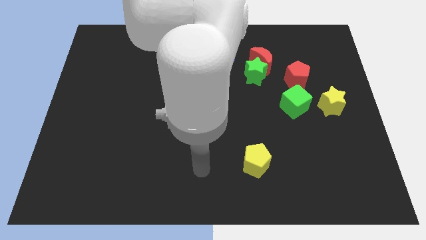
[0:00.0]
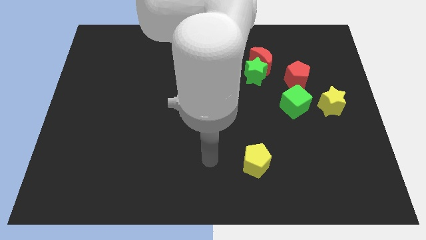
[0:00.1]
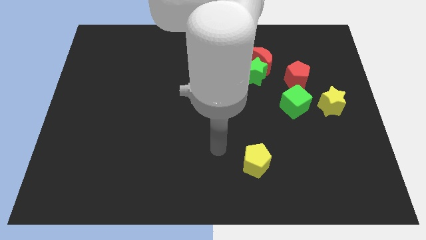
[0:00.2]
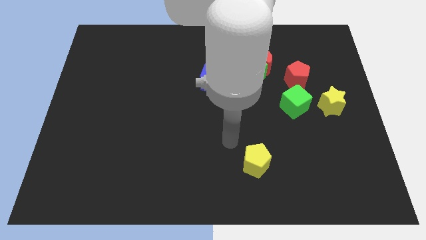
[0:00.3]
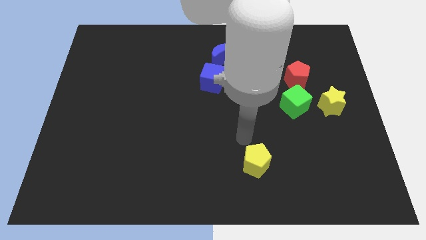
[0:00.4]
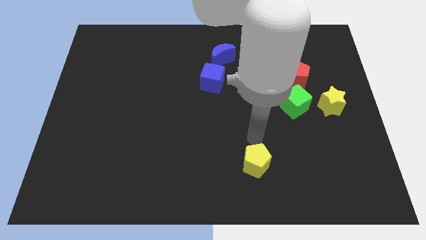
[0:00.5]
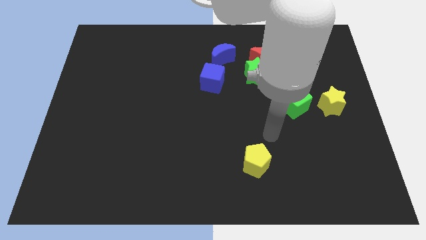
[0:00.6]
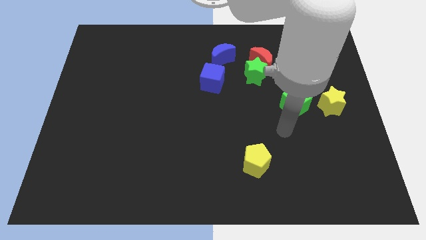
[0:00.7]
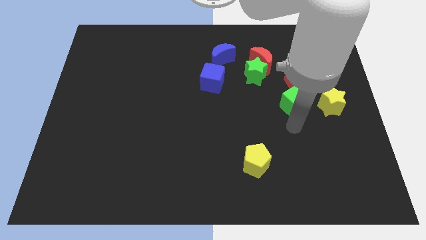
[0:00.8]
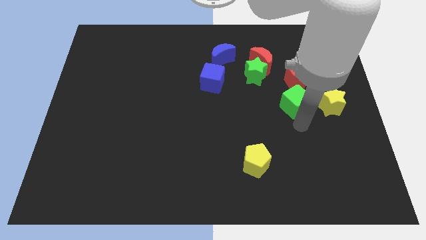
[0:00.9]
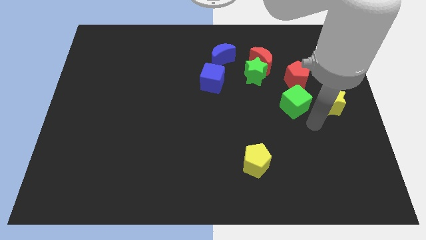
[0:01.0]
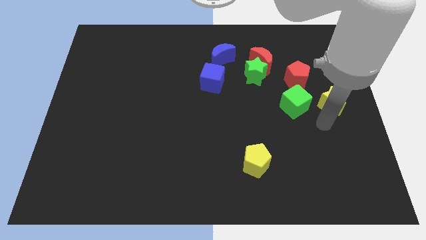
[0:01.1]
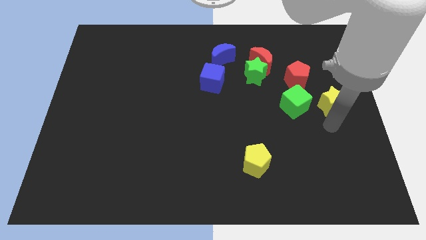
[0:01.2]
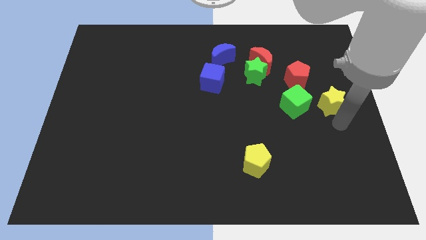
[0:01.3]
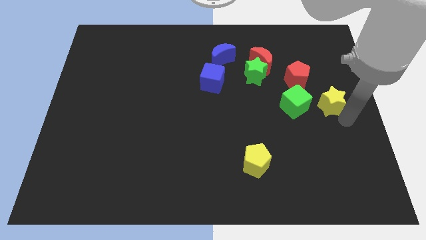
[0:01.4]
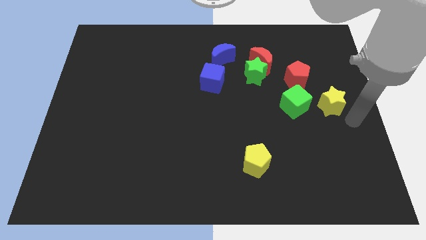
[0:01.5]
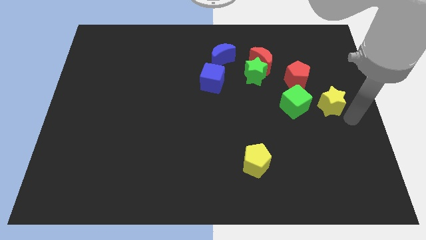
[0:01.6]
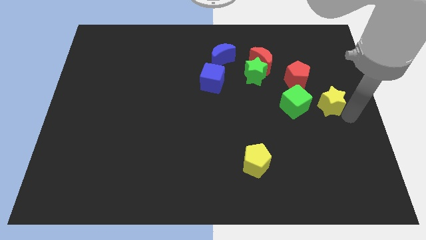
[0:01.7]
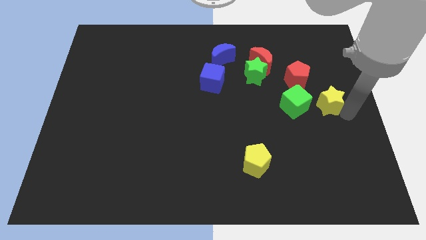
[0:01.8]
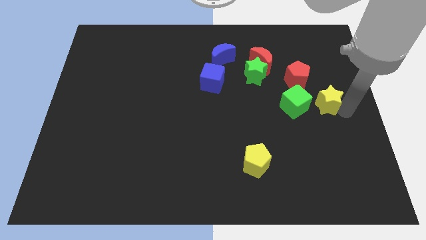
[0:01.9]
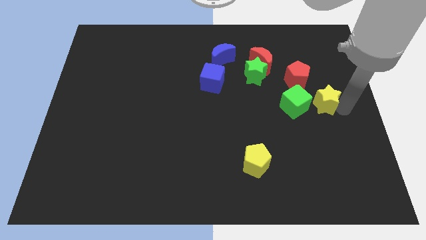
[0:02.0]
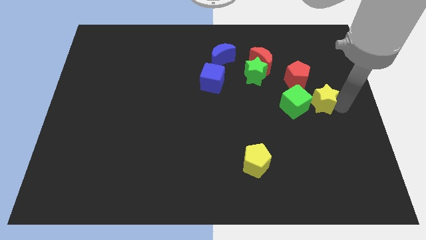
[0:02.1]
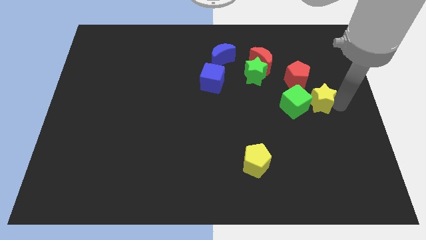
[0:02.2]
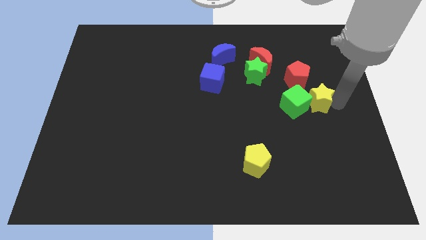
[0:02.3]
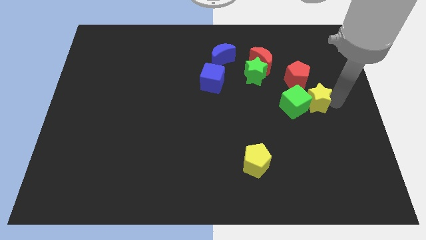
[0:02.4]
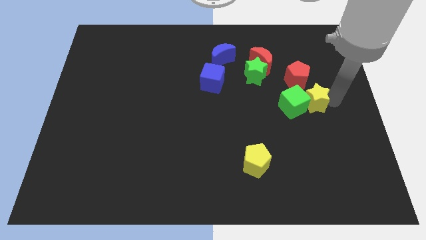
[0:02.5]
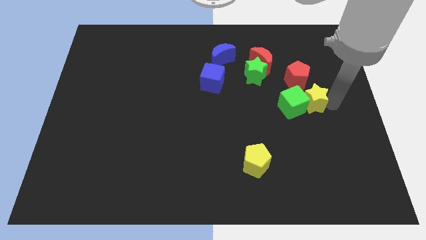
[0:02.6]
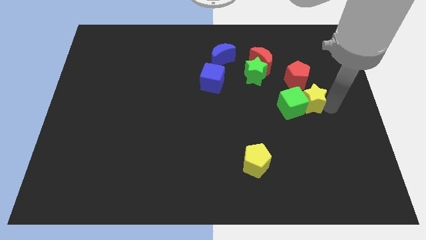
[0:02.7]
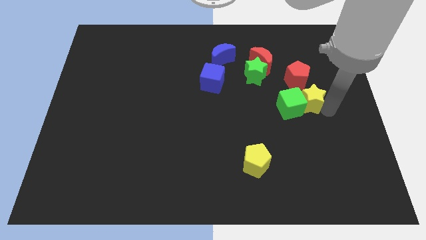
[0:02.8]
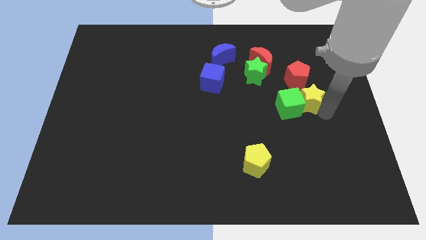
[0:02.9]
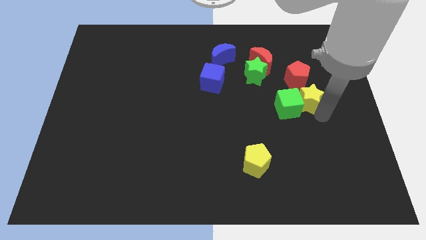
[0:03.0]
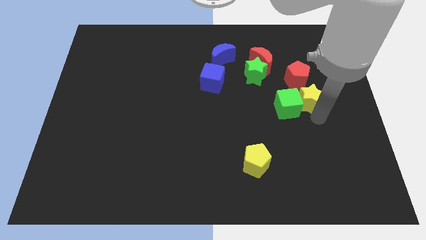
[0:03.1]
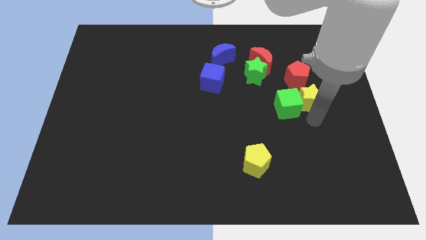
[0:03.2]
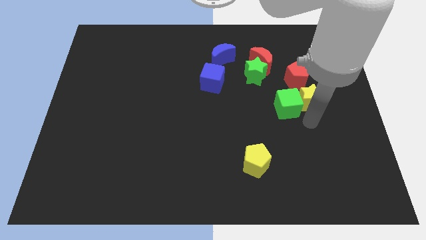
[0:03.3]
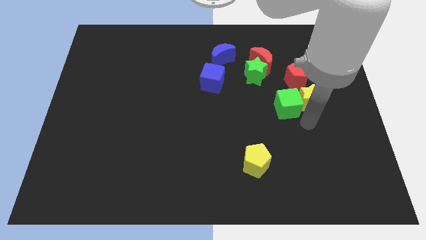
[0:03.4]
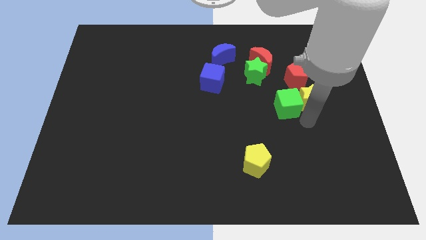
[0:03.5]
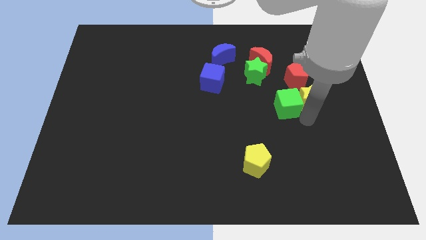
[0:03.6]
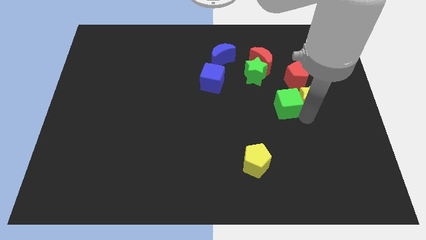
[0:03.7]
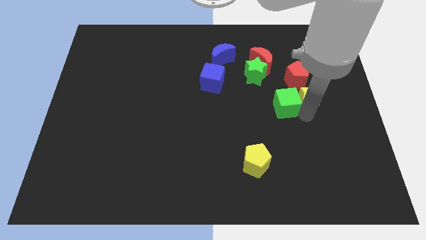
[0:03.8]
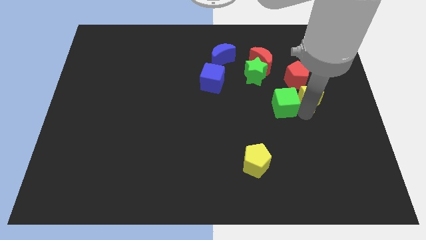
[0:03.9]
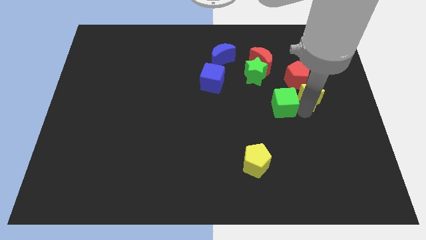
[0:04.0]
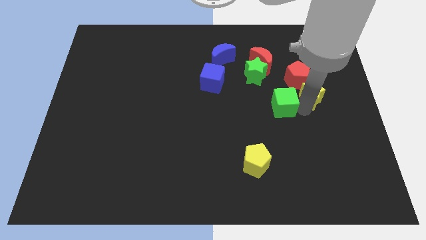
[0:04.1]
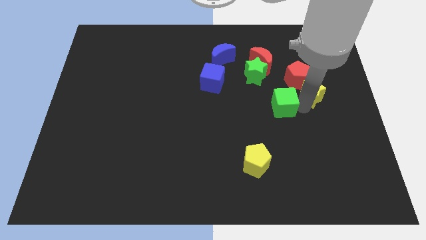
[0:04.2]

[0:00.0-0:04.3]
push the yellow star towards the red pentagon

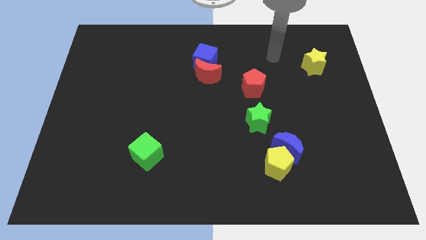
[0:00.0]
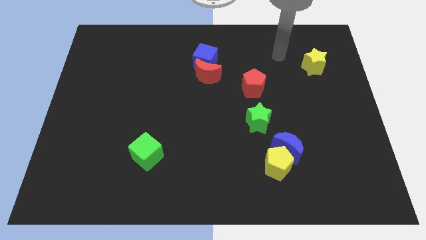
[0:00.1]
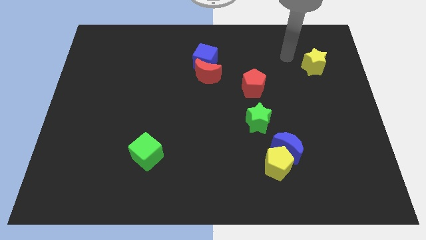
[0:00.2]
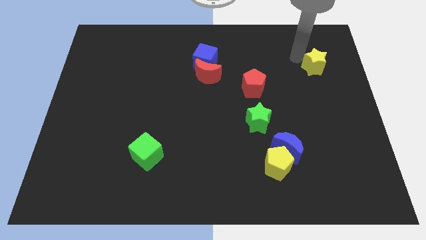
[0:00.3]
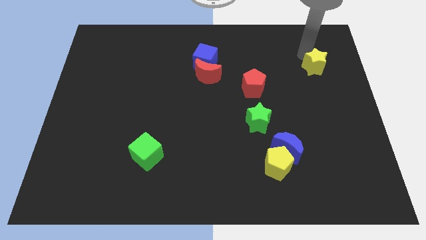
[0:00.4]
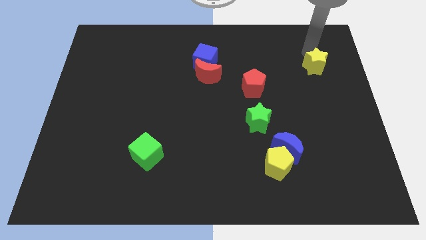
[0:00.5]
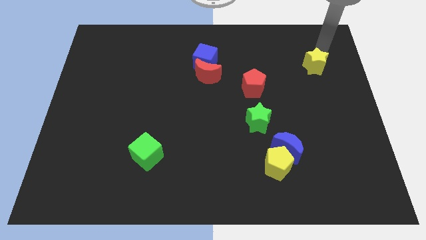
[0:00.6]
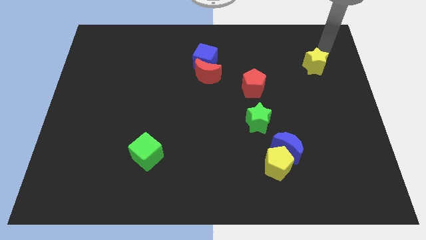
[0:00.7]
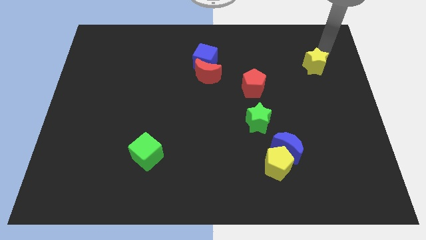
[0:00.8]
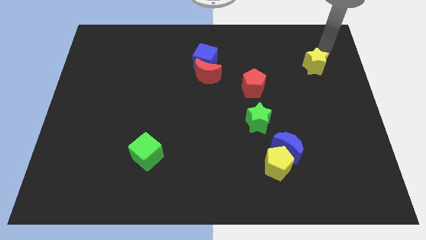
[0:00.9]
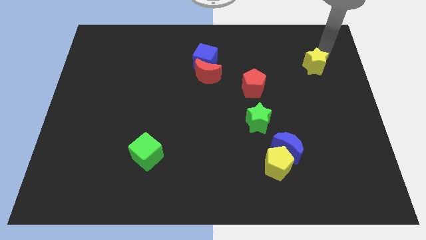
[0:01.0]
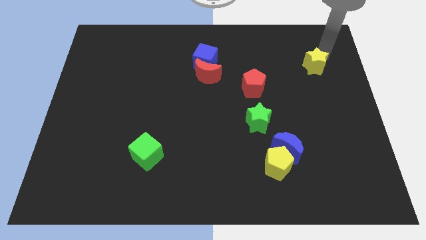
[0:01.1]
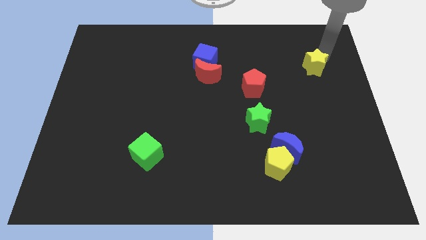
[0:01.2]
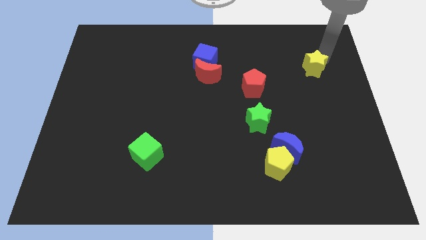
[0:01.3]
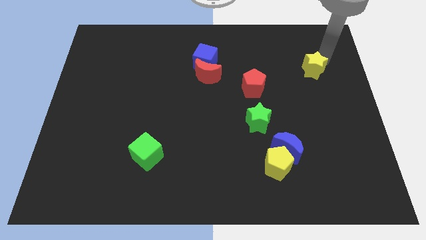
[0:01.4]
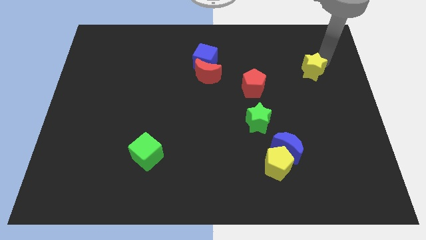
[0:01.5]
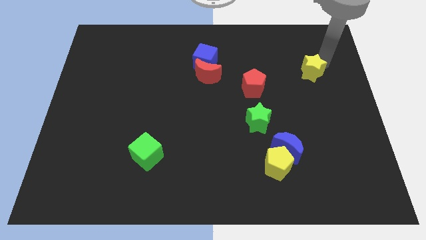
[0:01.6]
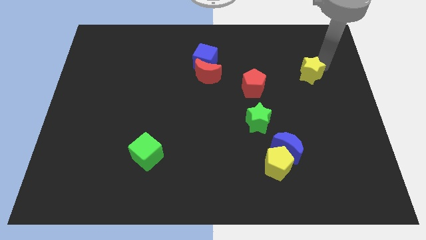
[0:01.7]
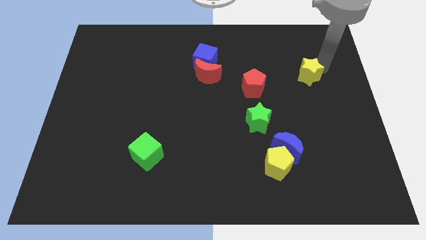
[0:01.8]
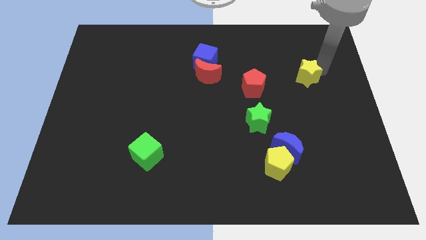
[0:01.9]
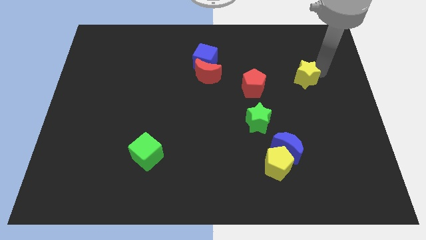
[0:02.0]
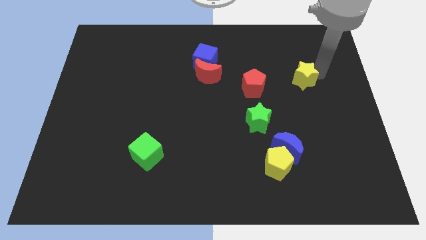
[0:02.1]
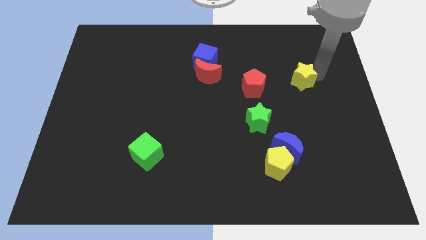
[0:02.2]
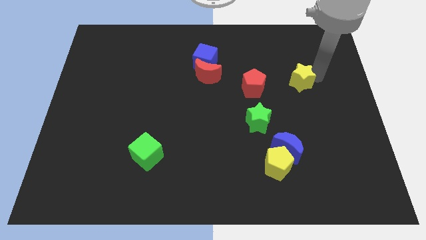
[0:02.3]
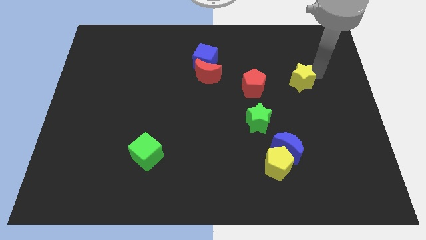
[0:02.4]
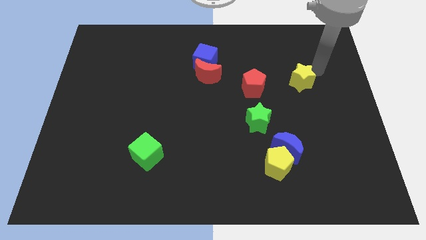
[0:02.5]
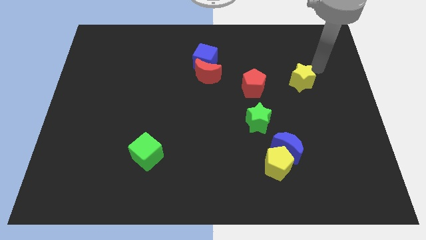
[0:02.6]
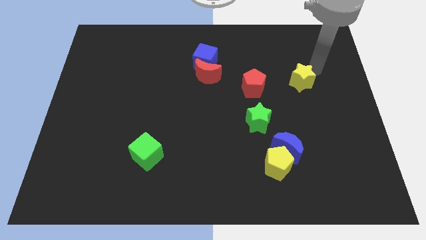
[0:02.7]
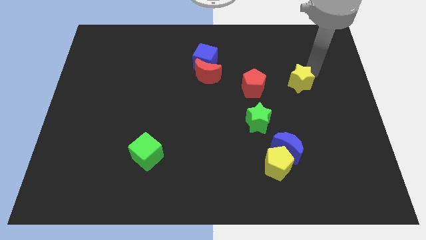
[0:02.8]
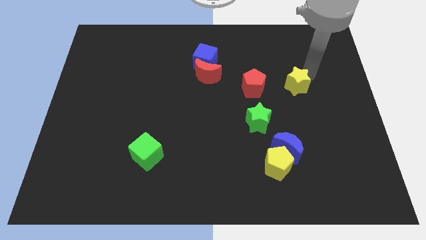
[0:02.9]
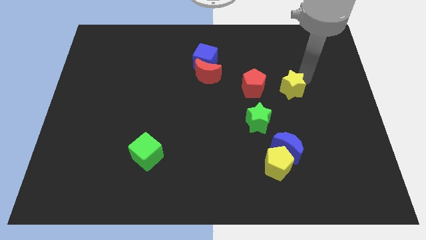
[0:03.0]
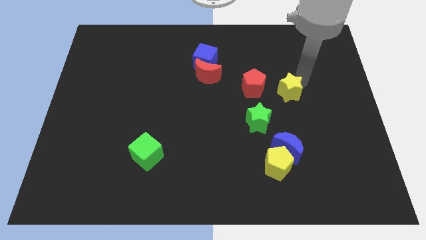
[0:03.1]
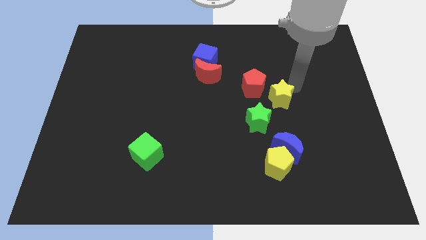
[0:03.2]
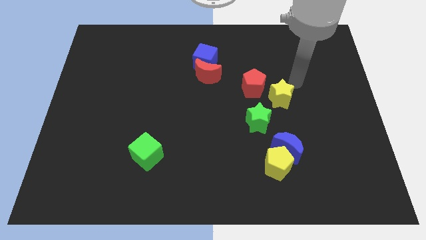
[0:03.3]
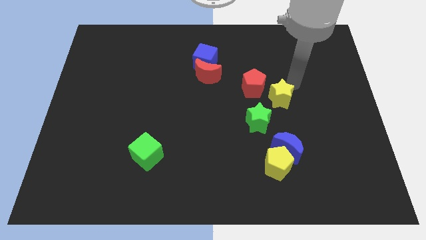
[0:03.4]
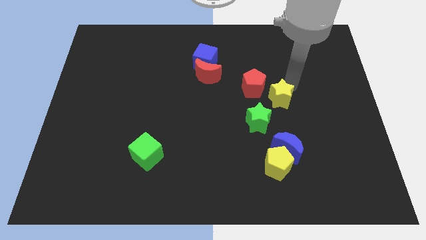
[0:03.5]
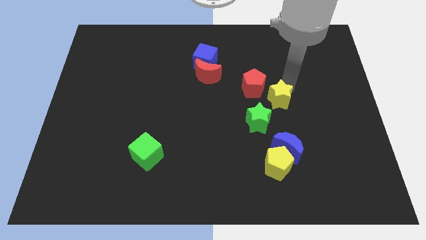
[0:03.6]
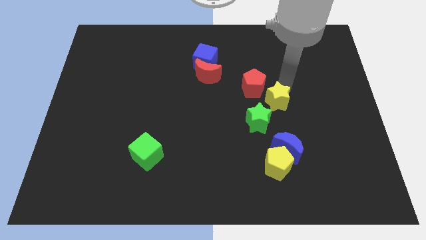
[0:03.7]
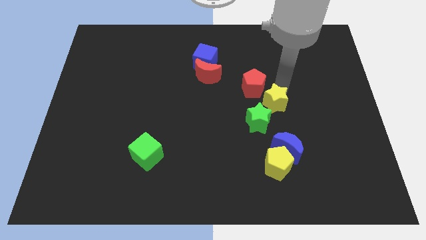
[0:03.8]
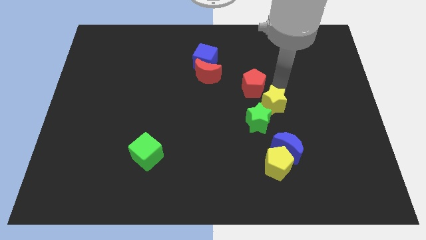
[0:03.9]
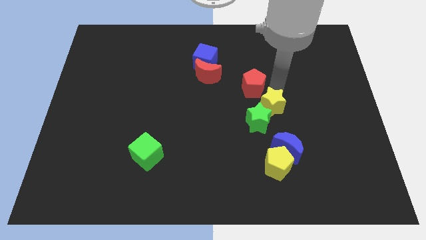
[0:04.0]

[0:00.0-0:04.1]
push the yellow star to the green star
